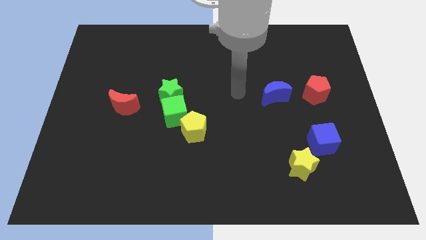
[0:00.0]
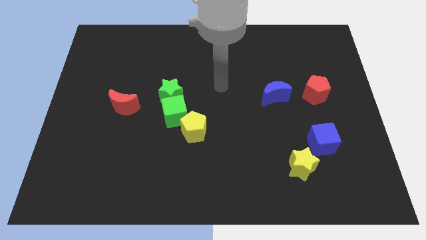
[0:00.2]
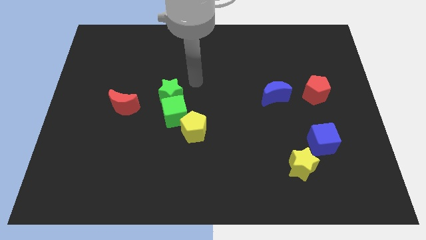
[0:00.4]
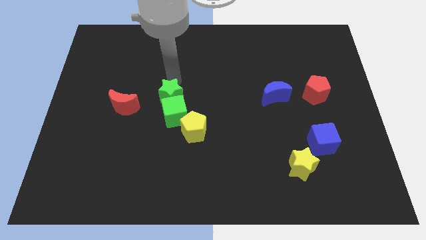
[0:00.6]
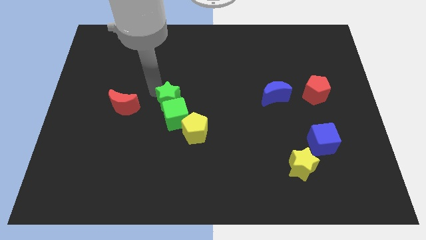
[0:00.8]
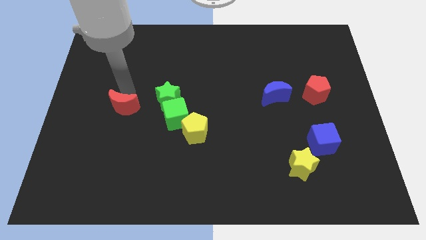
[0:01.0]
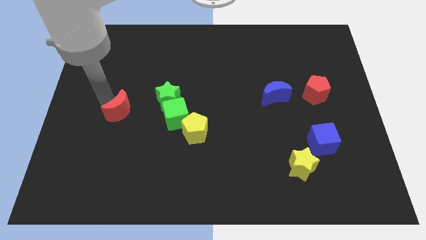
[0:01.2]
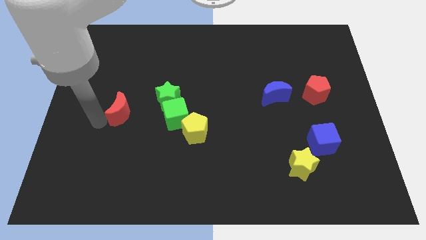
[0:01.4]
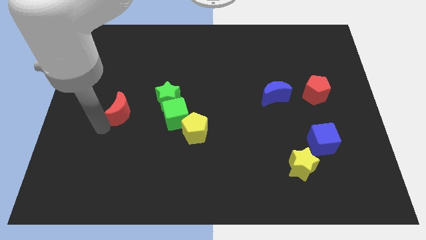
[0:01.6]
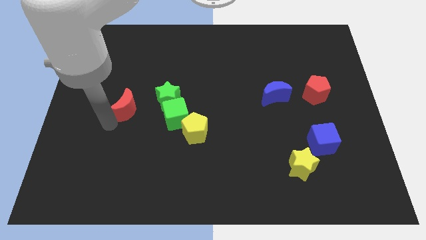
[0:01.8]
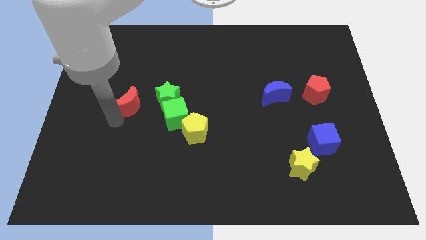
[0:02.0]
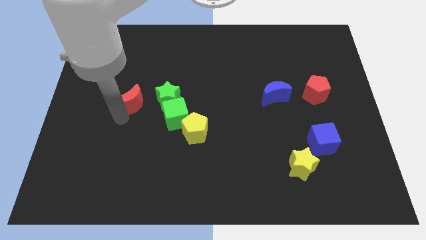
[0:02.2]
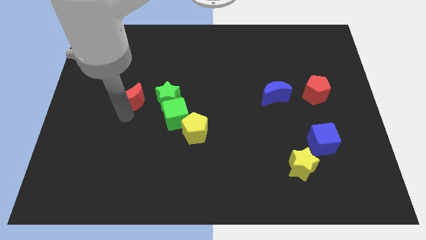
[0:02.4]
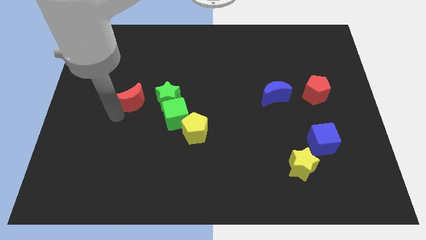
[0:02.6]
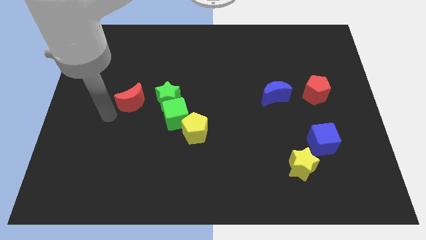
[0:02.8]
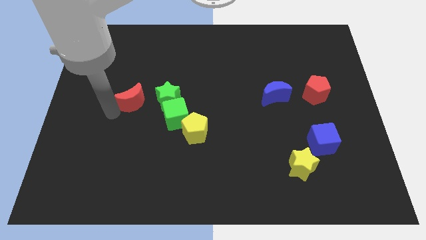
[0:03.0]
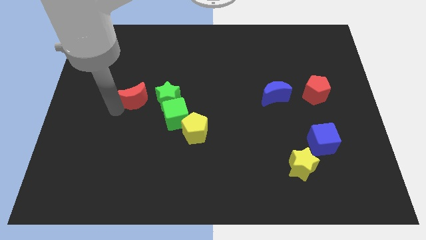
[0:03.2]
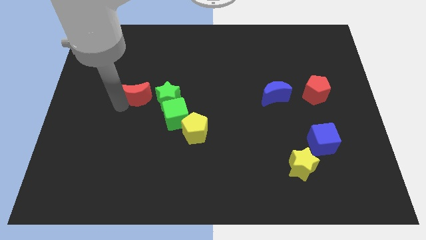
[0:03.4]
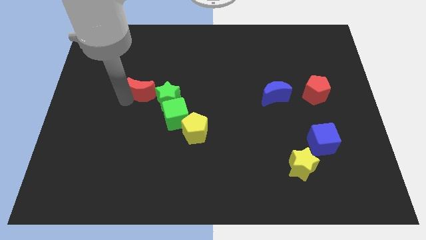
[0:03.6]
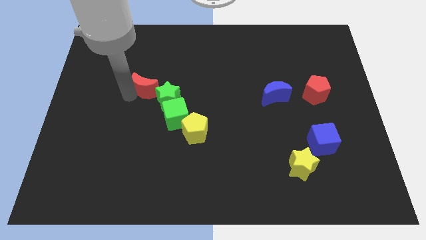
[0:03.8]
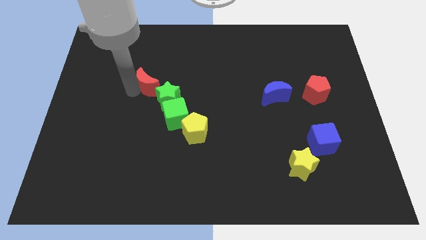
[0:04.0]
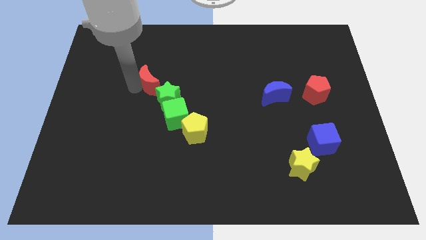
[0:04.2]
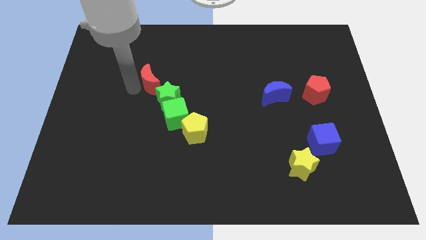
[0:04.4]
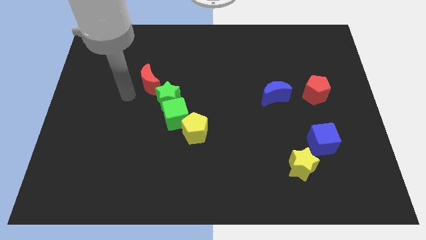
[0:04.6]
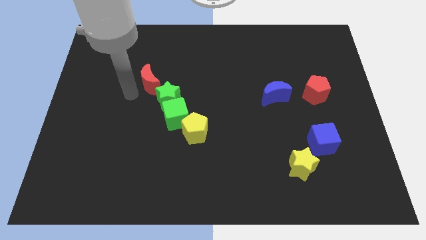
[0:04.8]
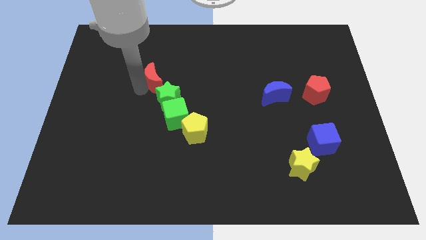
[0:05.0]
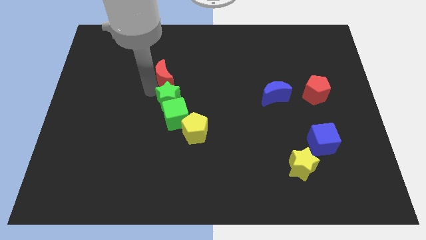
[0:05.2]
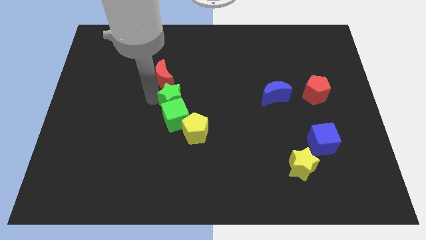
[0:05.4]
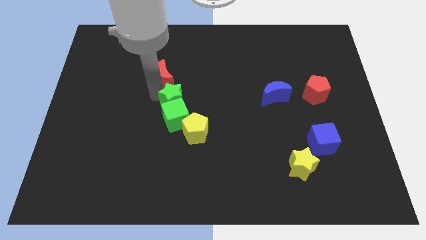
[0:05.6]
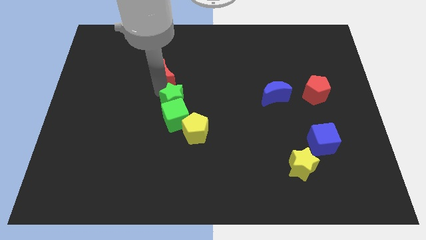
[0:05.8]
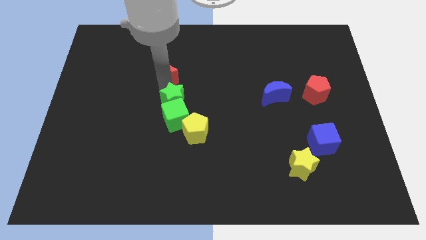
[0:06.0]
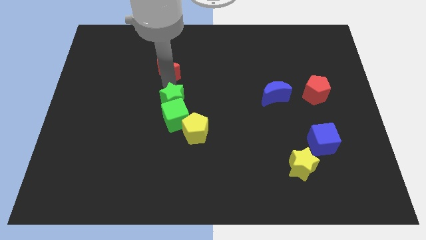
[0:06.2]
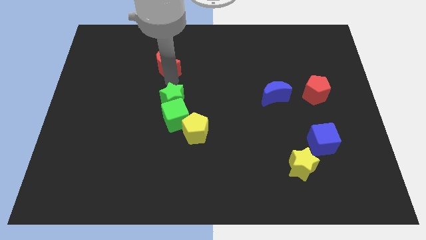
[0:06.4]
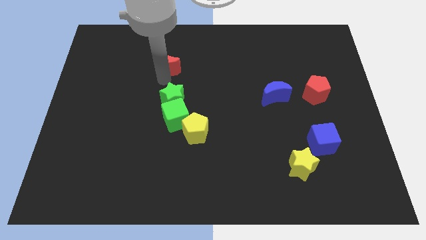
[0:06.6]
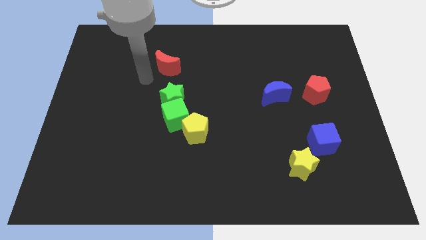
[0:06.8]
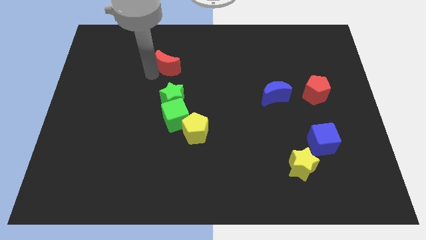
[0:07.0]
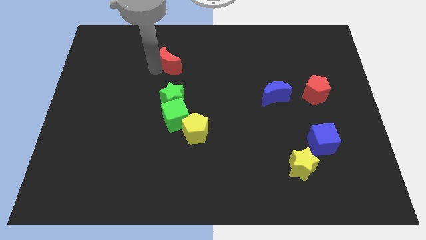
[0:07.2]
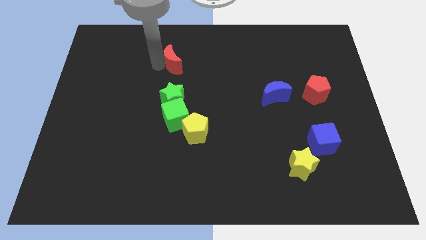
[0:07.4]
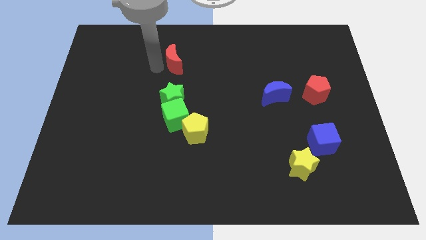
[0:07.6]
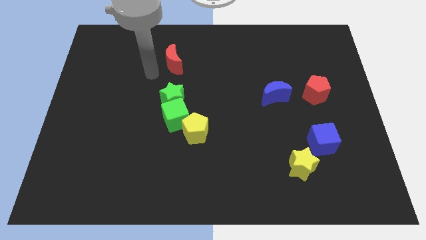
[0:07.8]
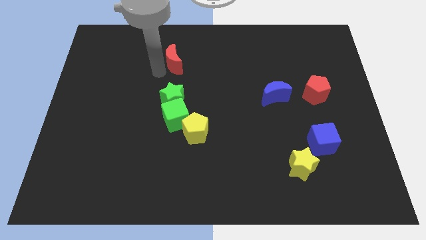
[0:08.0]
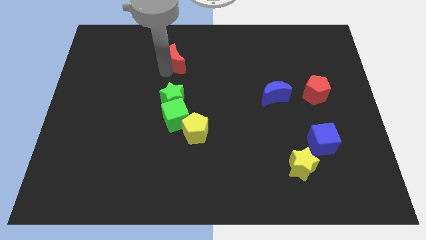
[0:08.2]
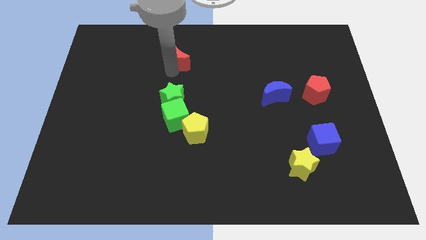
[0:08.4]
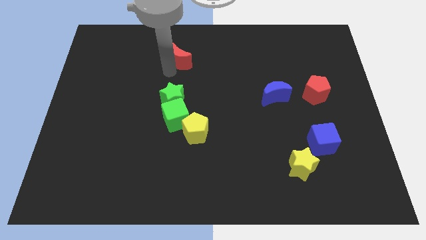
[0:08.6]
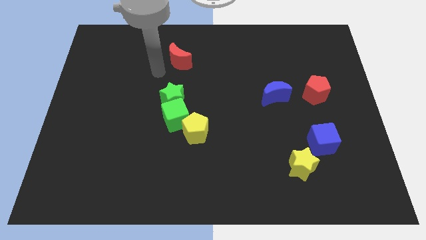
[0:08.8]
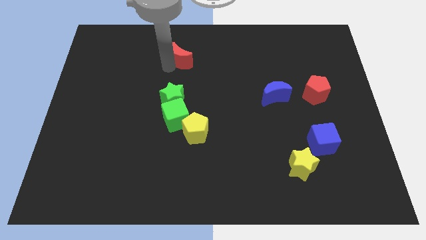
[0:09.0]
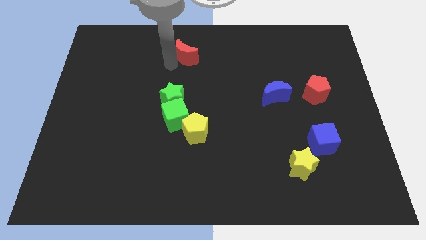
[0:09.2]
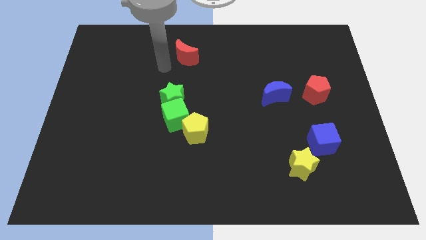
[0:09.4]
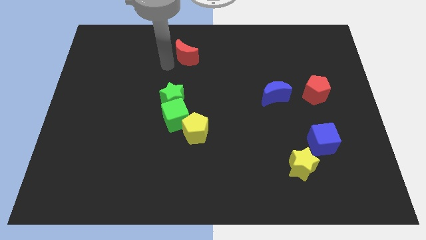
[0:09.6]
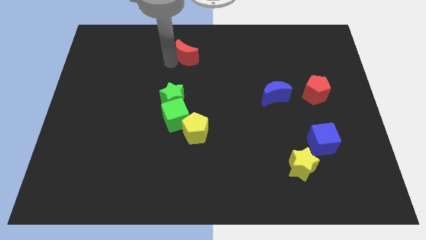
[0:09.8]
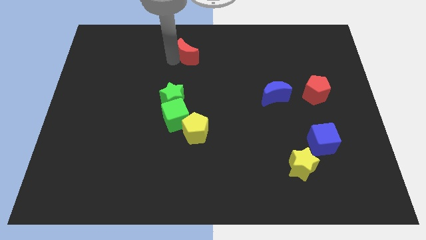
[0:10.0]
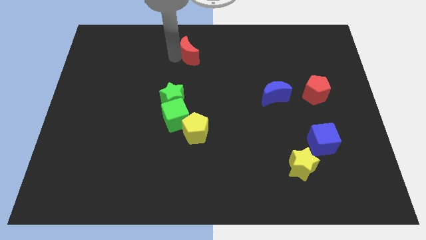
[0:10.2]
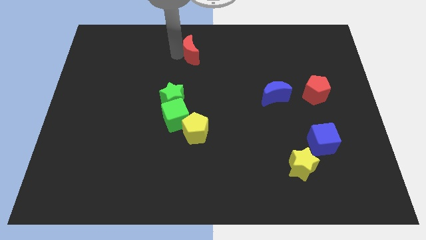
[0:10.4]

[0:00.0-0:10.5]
push the red moon to the towards your base

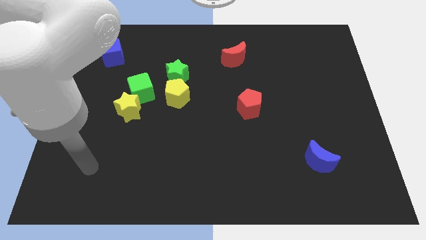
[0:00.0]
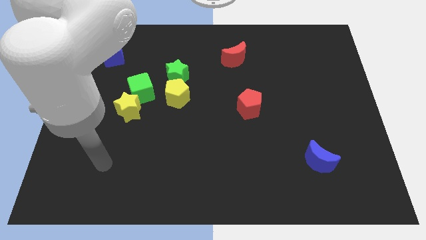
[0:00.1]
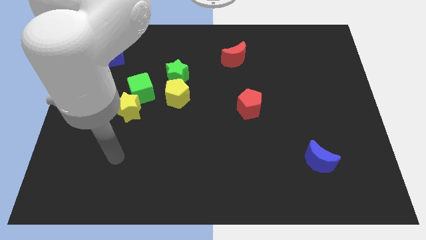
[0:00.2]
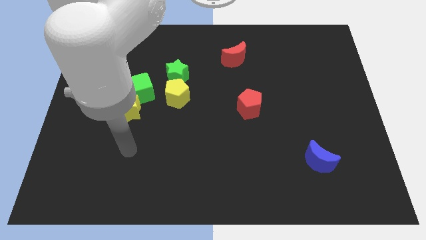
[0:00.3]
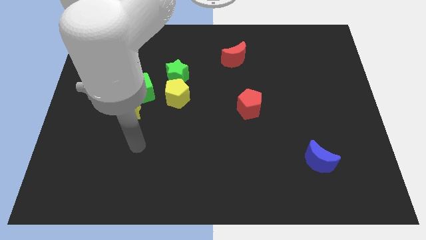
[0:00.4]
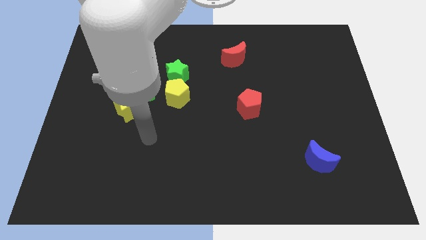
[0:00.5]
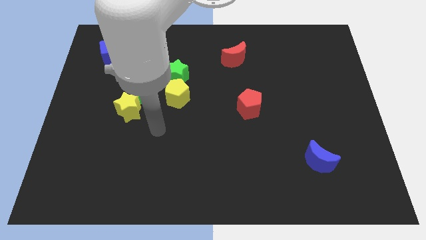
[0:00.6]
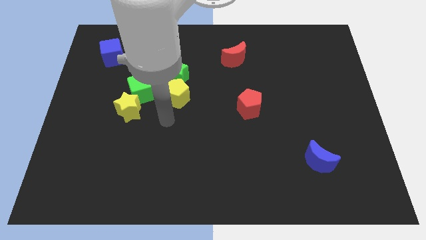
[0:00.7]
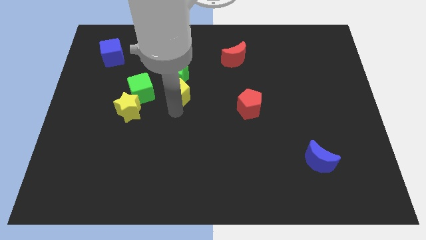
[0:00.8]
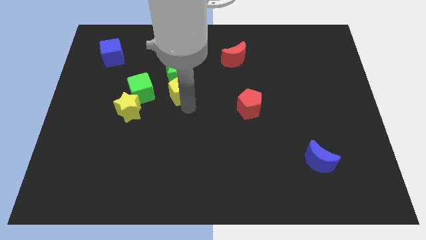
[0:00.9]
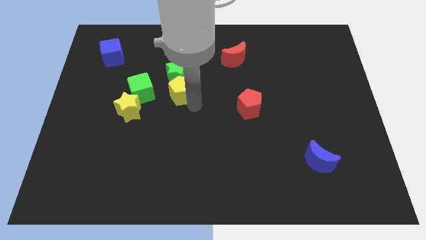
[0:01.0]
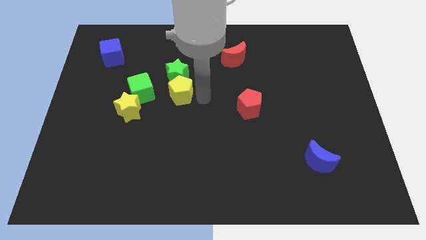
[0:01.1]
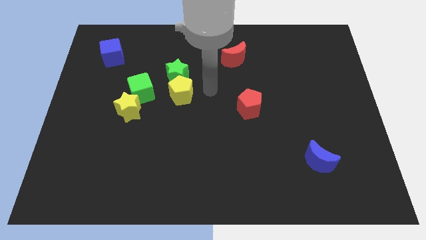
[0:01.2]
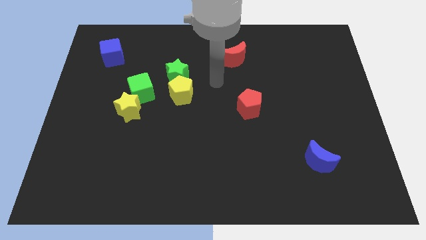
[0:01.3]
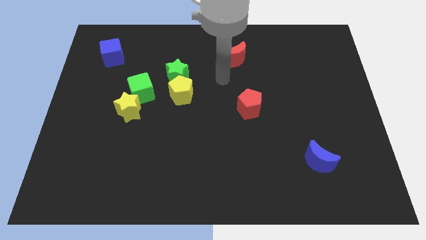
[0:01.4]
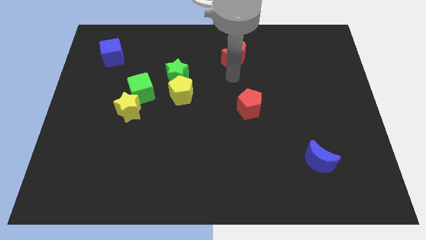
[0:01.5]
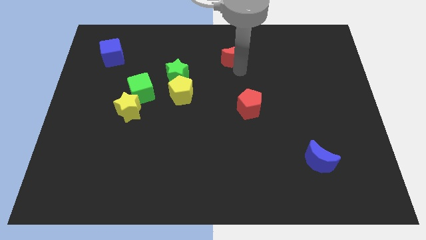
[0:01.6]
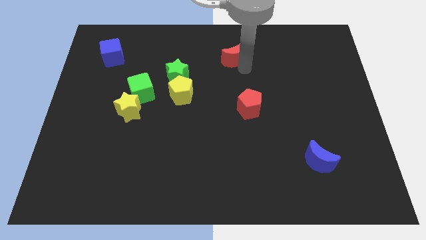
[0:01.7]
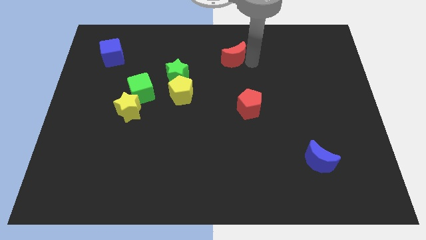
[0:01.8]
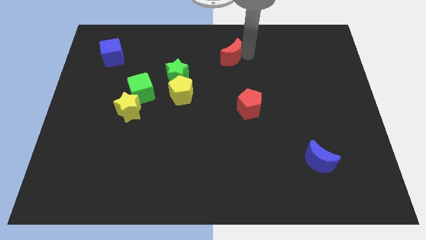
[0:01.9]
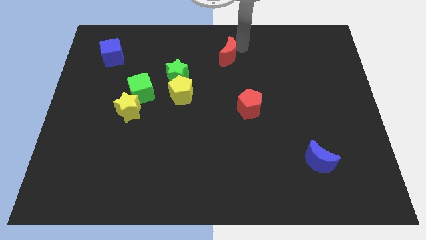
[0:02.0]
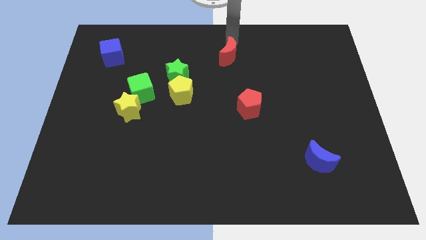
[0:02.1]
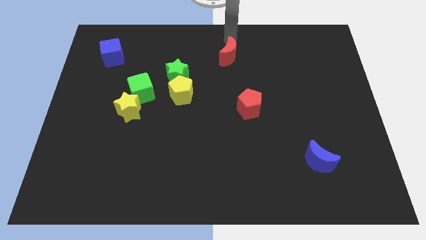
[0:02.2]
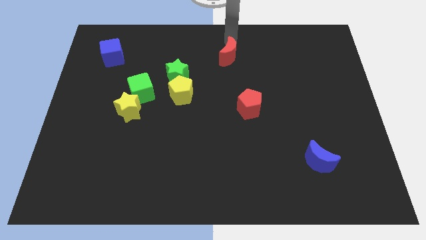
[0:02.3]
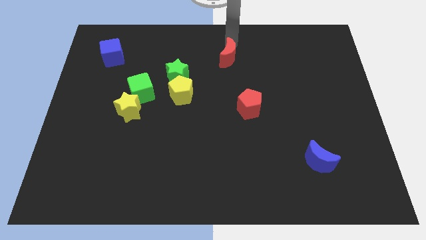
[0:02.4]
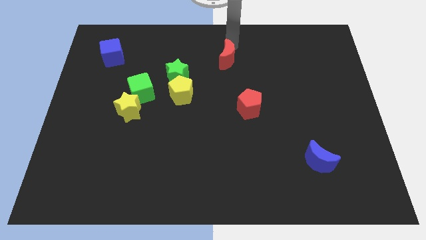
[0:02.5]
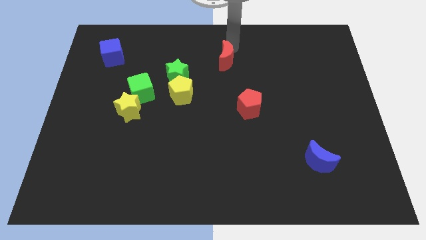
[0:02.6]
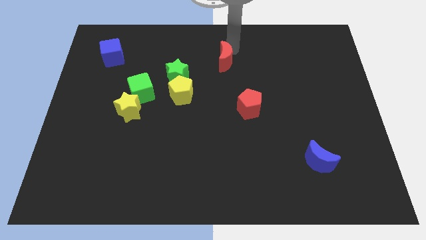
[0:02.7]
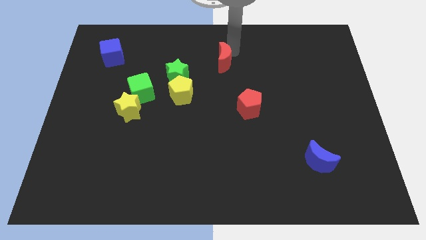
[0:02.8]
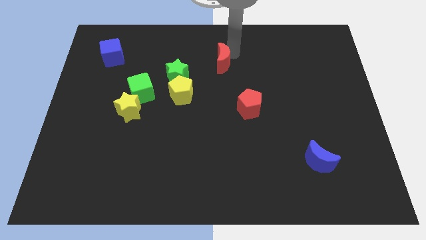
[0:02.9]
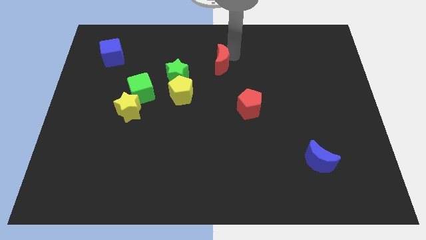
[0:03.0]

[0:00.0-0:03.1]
push the red moon to the center of the board
